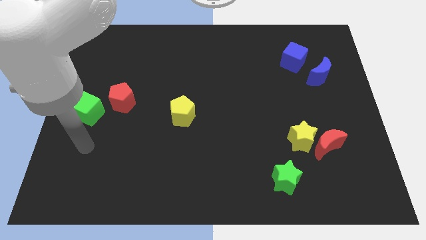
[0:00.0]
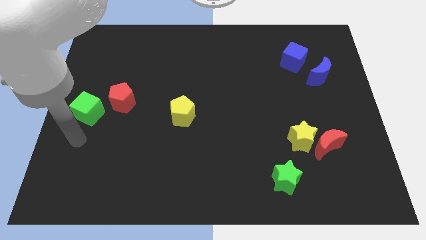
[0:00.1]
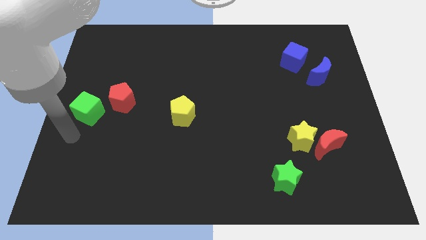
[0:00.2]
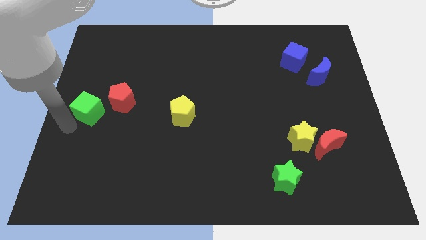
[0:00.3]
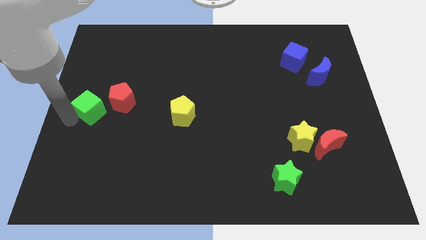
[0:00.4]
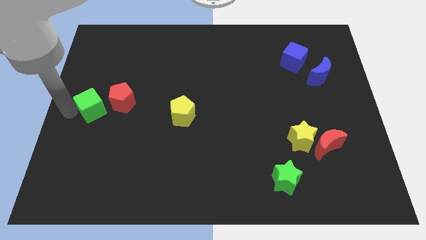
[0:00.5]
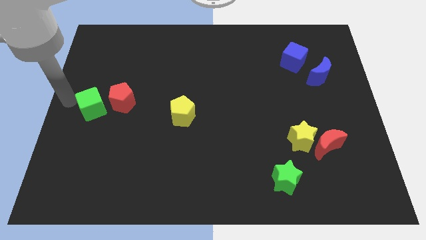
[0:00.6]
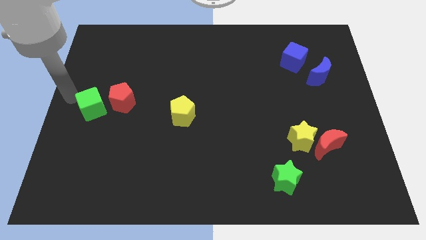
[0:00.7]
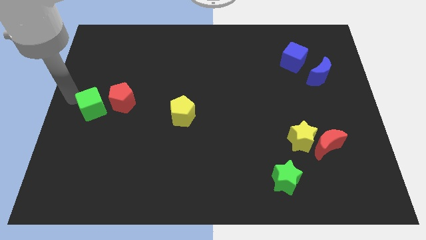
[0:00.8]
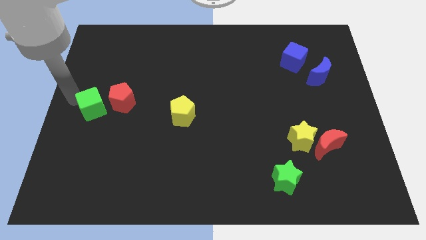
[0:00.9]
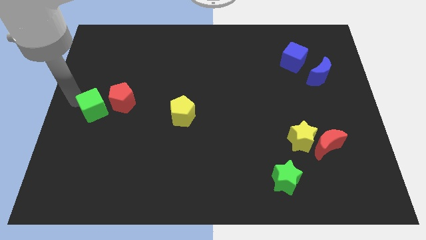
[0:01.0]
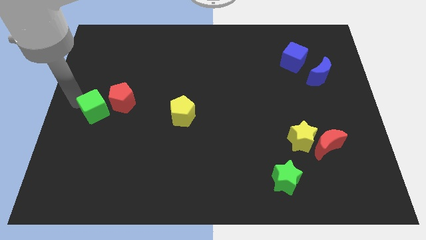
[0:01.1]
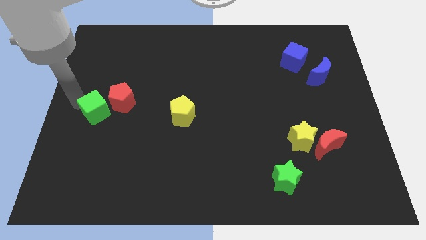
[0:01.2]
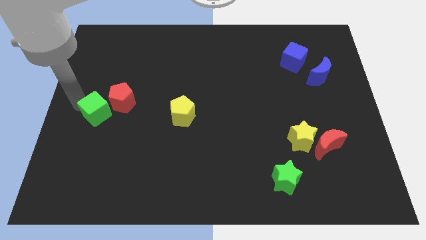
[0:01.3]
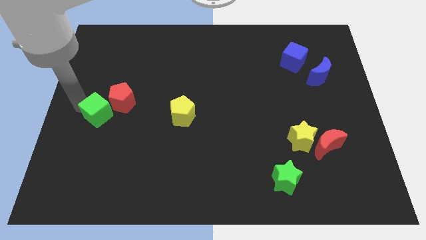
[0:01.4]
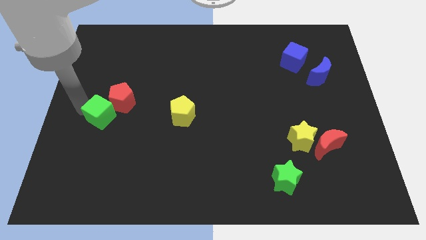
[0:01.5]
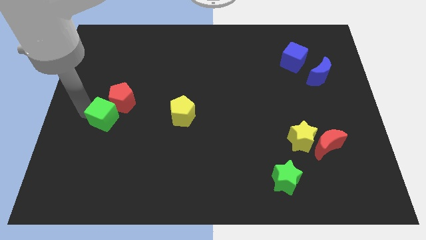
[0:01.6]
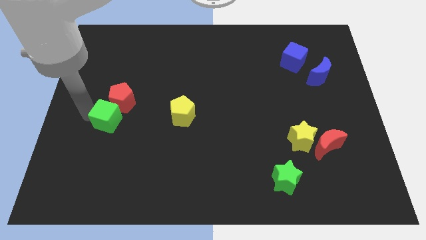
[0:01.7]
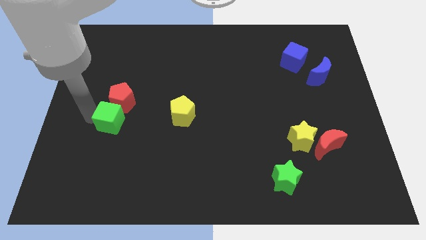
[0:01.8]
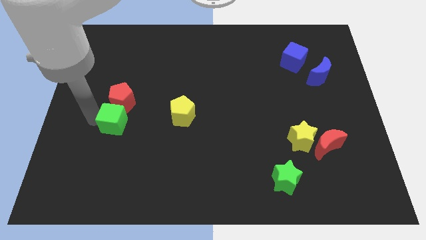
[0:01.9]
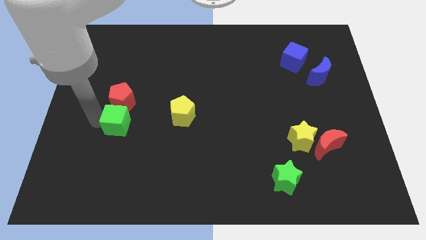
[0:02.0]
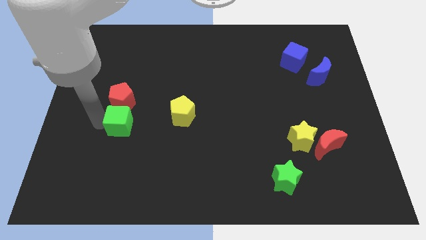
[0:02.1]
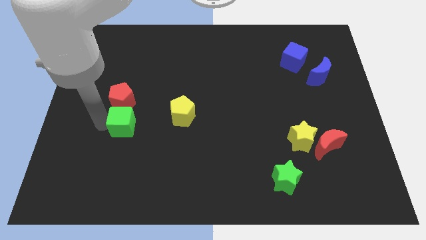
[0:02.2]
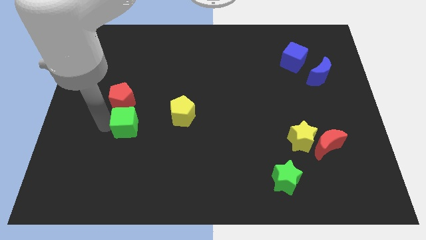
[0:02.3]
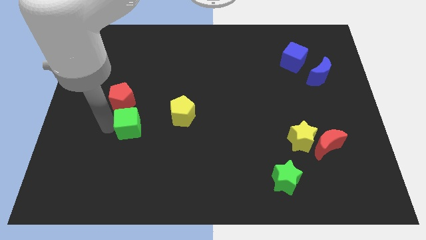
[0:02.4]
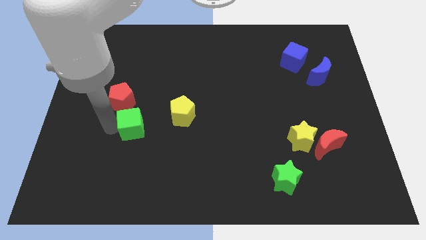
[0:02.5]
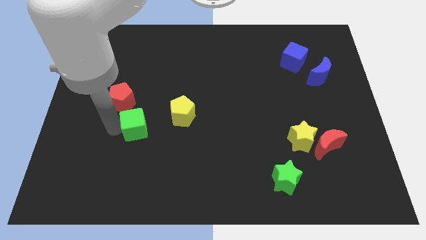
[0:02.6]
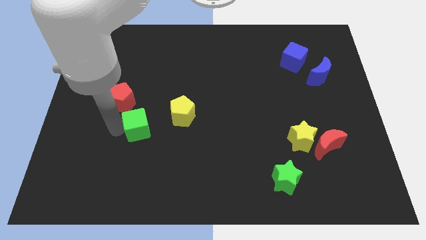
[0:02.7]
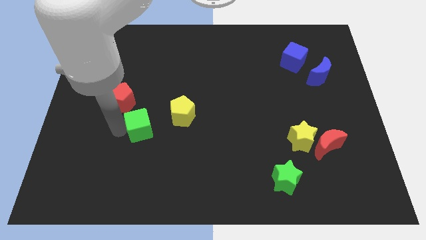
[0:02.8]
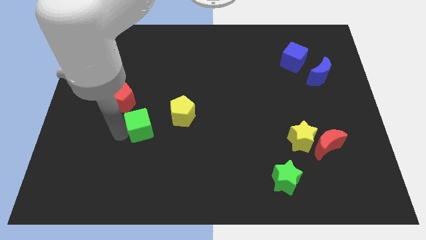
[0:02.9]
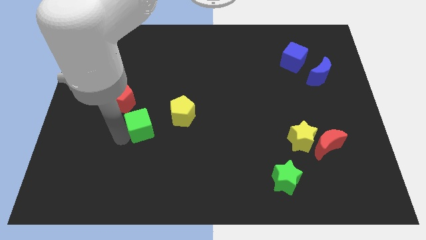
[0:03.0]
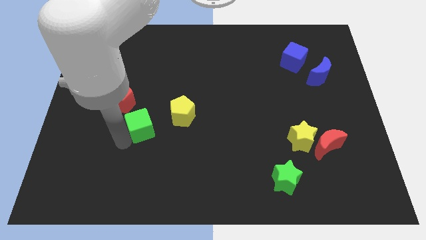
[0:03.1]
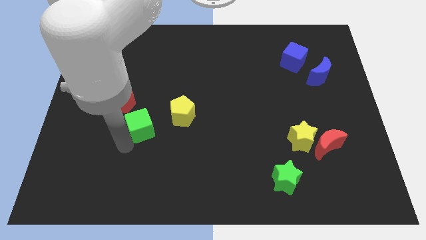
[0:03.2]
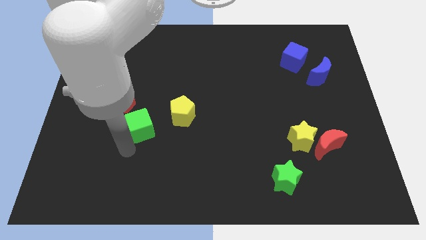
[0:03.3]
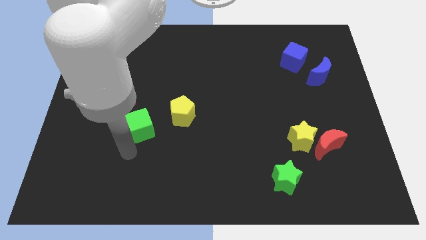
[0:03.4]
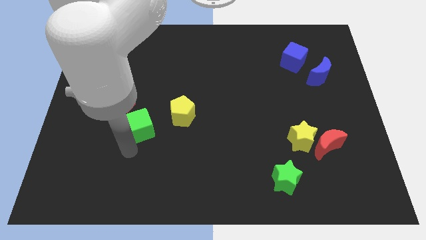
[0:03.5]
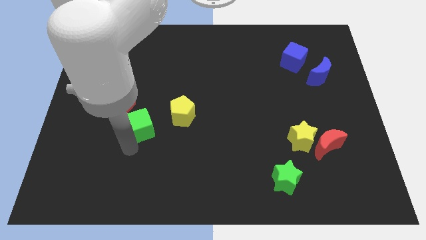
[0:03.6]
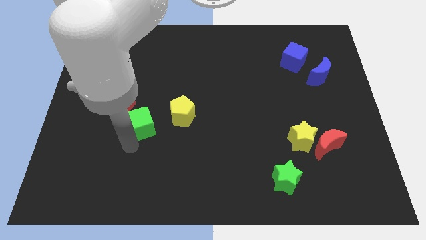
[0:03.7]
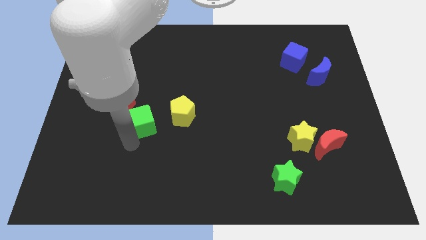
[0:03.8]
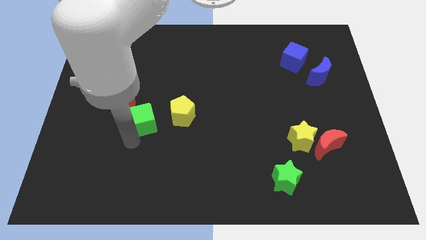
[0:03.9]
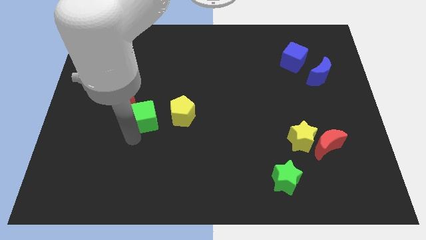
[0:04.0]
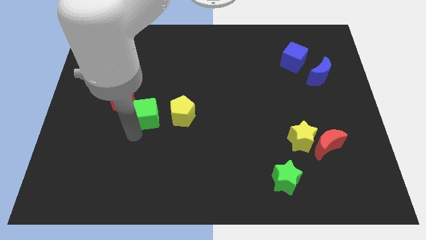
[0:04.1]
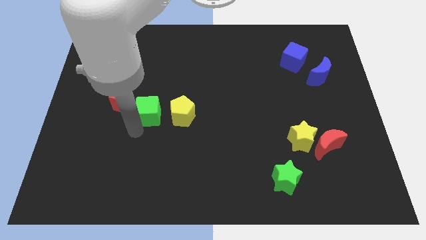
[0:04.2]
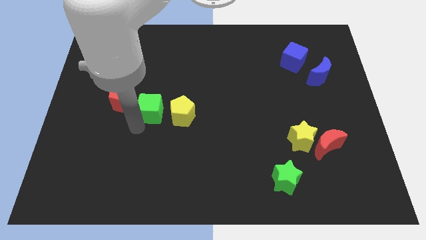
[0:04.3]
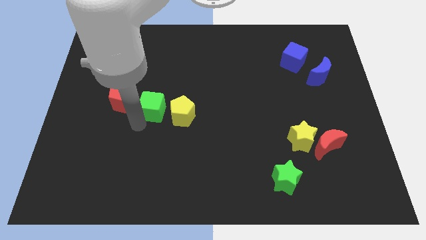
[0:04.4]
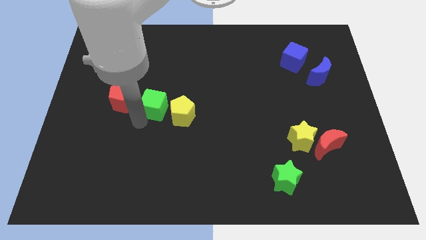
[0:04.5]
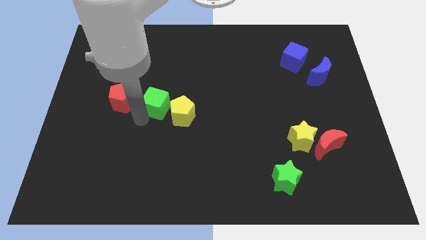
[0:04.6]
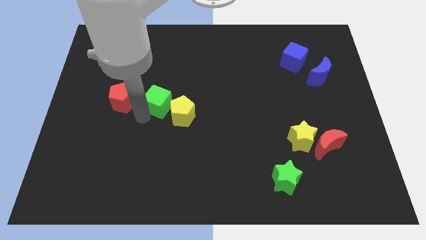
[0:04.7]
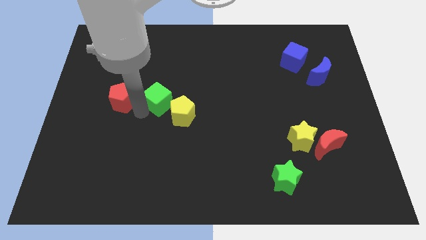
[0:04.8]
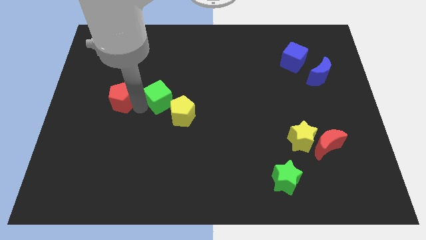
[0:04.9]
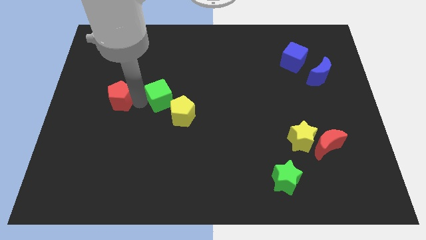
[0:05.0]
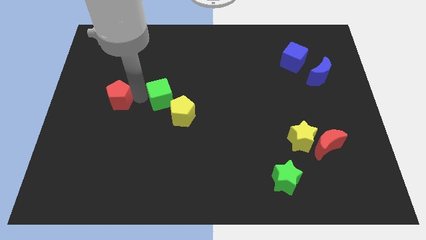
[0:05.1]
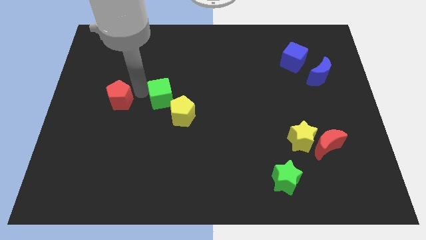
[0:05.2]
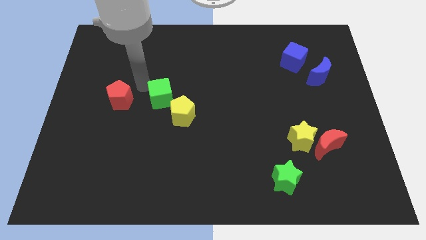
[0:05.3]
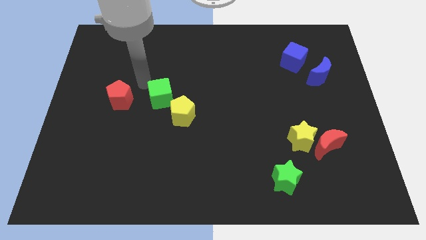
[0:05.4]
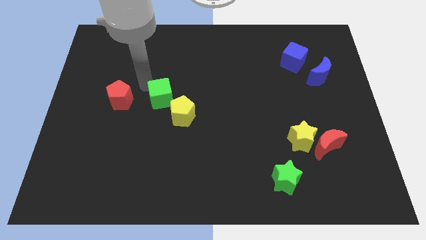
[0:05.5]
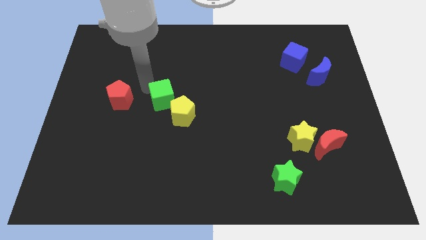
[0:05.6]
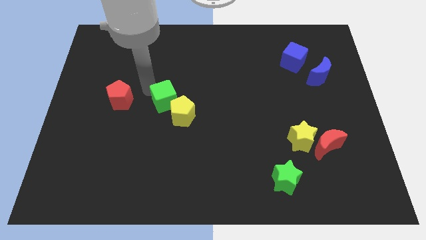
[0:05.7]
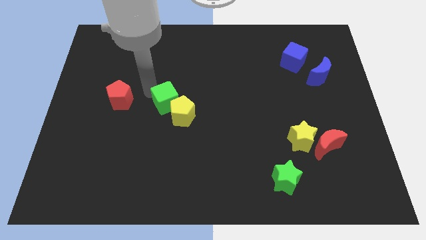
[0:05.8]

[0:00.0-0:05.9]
push the green cube to the yellow pentagon
